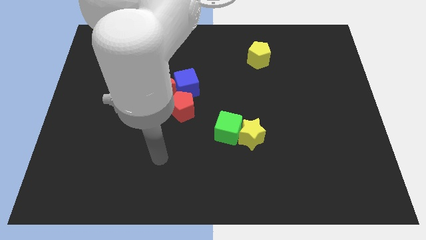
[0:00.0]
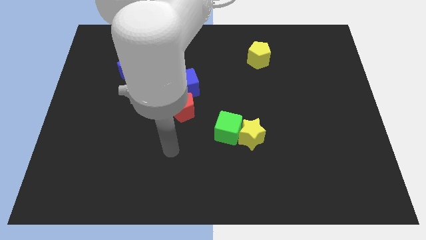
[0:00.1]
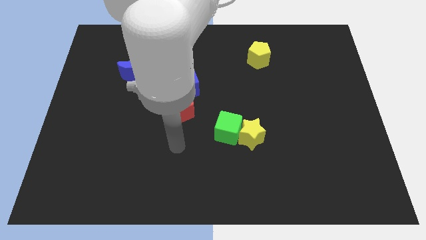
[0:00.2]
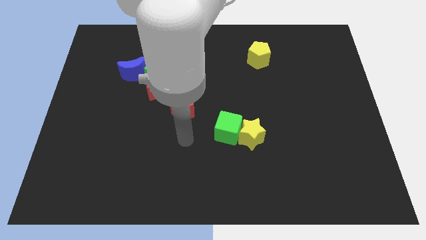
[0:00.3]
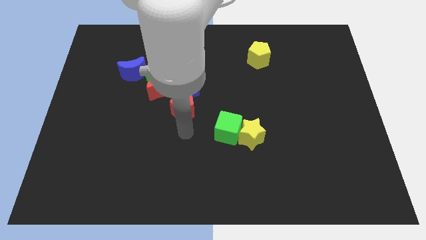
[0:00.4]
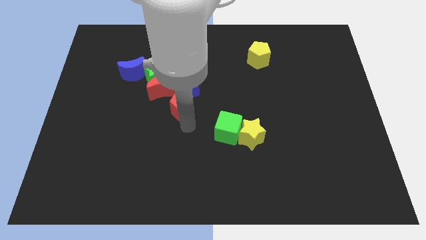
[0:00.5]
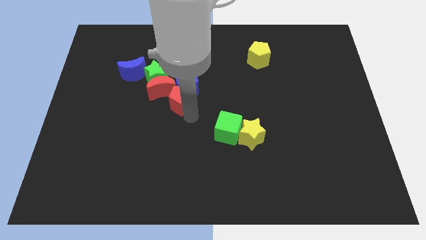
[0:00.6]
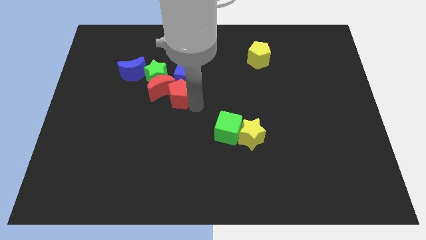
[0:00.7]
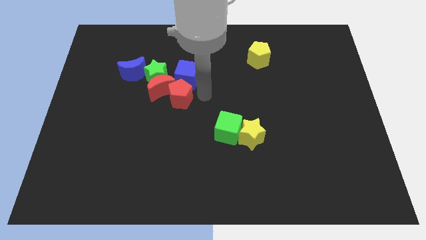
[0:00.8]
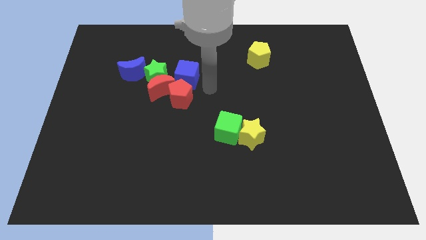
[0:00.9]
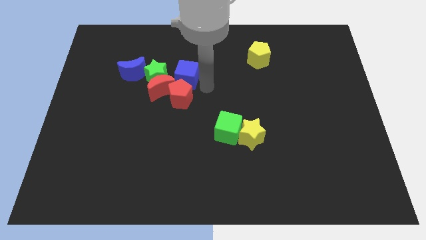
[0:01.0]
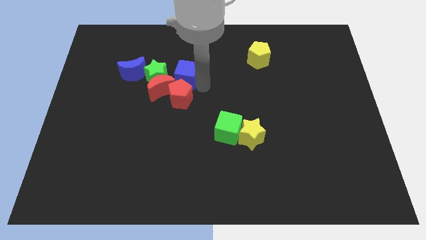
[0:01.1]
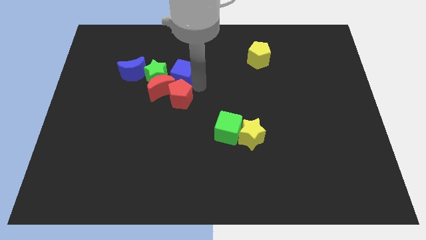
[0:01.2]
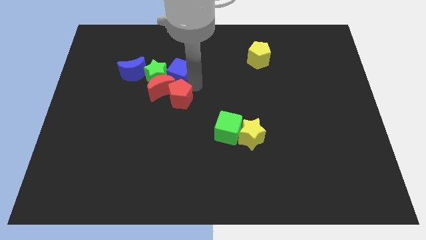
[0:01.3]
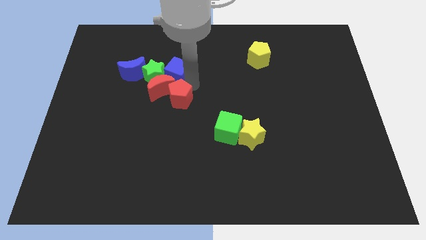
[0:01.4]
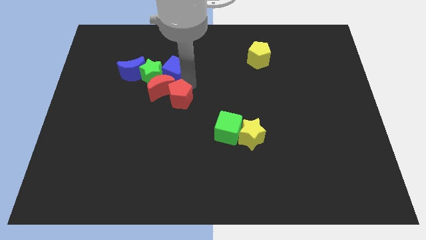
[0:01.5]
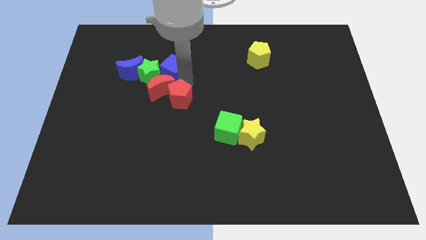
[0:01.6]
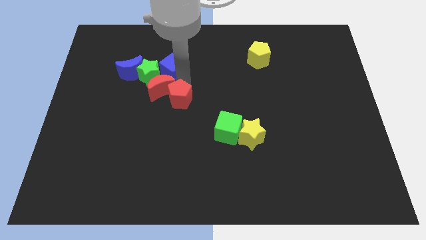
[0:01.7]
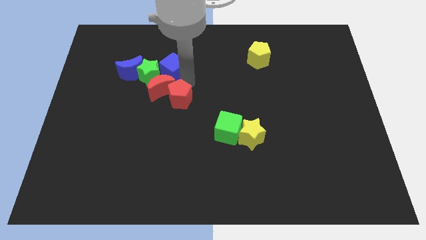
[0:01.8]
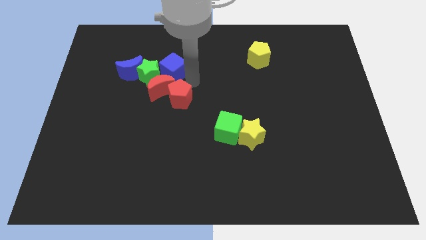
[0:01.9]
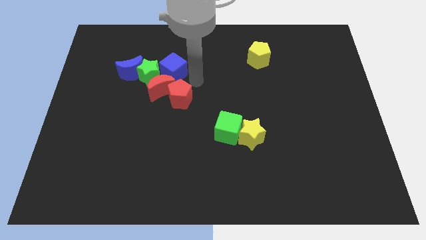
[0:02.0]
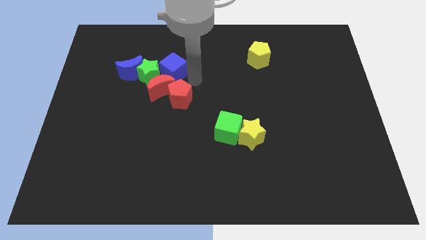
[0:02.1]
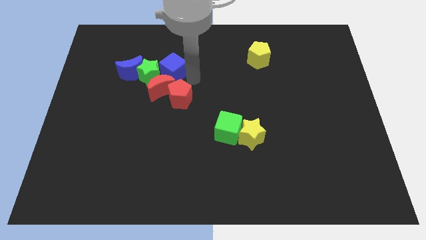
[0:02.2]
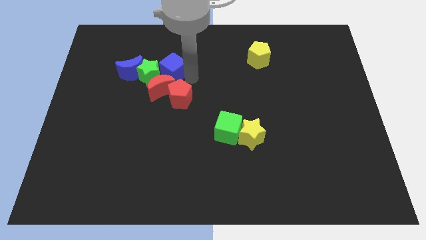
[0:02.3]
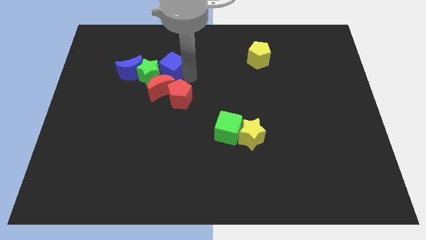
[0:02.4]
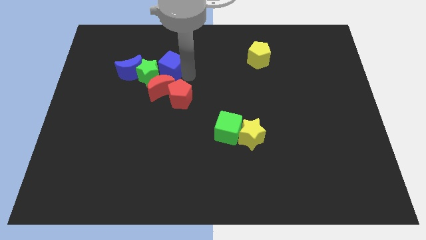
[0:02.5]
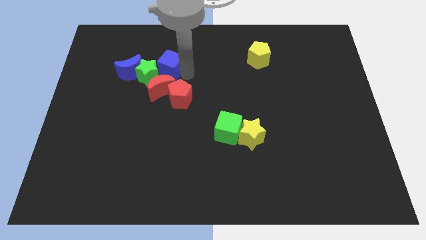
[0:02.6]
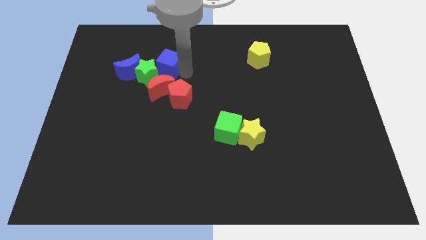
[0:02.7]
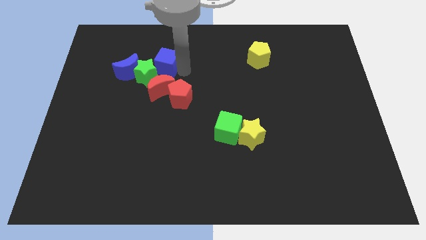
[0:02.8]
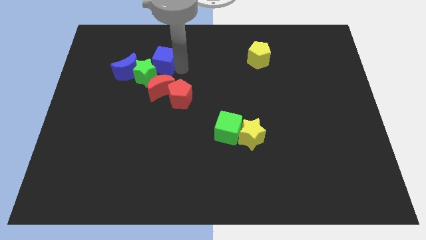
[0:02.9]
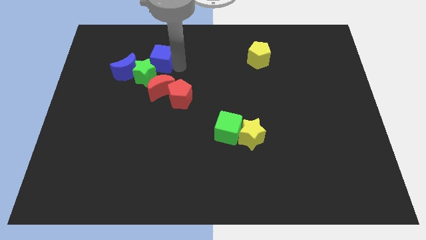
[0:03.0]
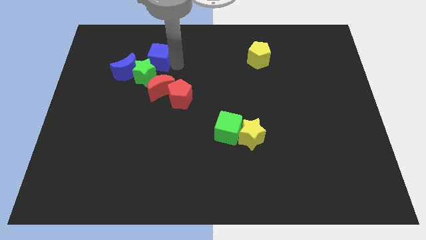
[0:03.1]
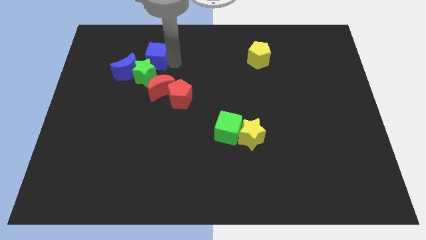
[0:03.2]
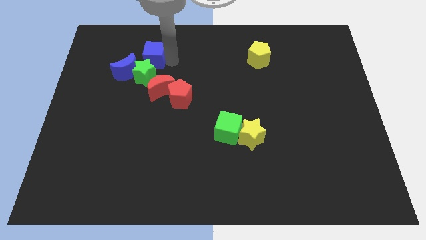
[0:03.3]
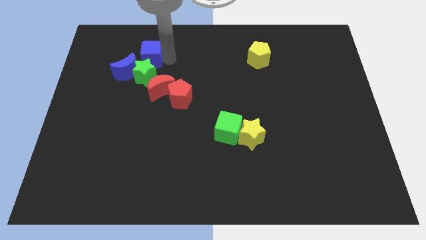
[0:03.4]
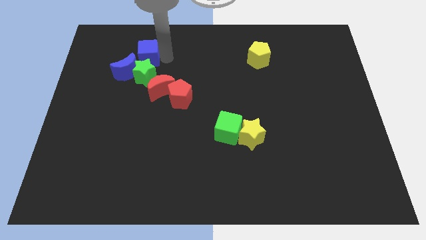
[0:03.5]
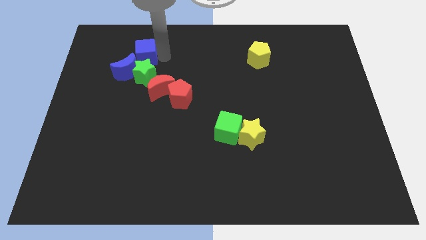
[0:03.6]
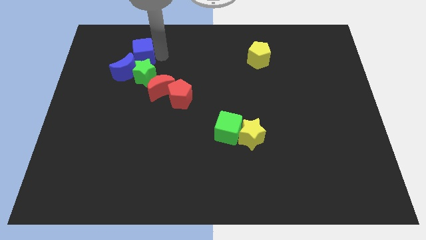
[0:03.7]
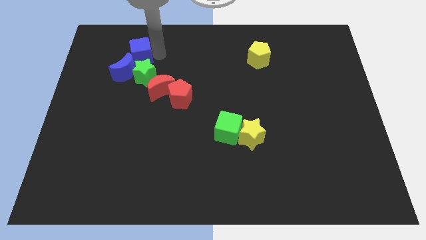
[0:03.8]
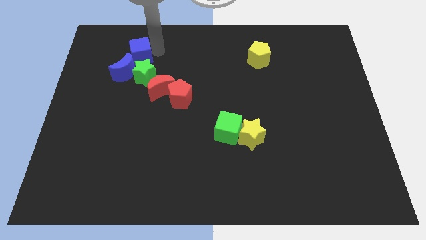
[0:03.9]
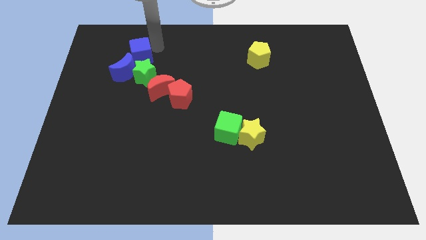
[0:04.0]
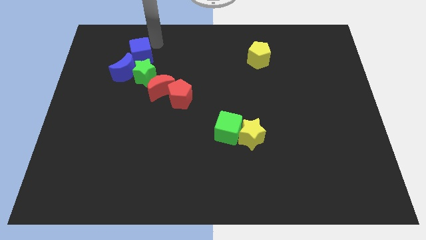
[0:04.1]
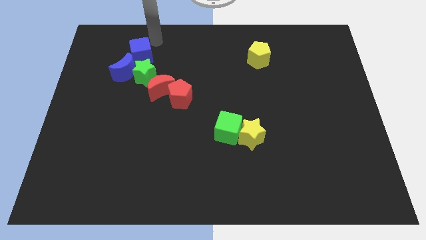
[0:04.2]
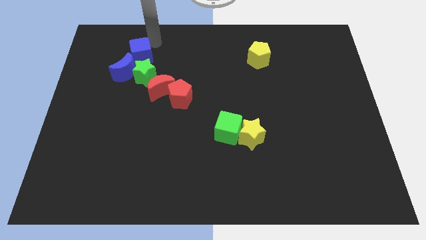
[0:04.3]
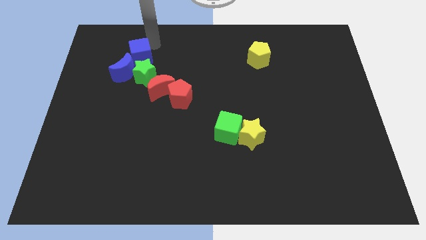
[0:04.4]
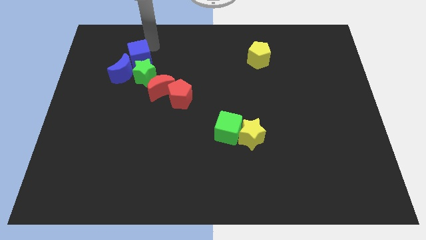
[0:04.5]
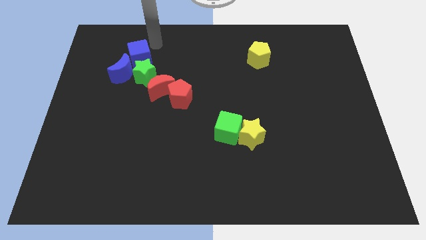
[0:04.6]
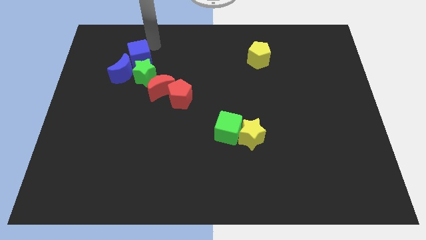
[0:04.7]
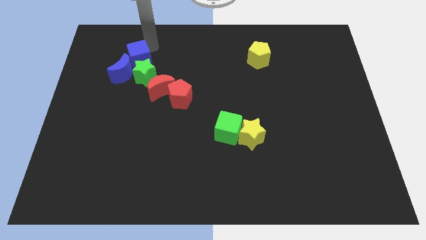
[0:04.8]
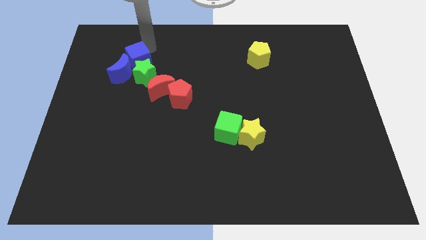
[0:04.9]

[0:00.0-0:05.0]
put the blue cube next to the blue moon

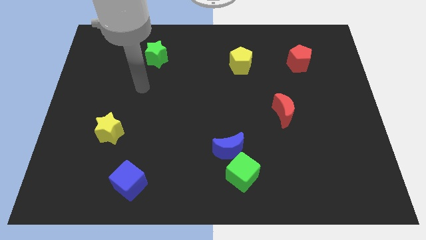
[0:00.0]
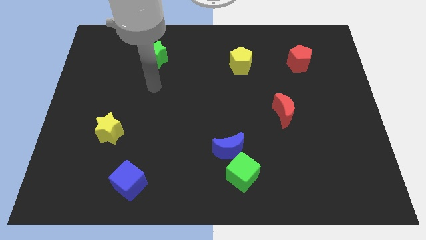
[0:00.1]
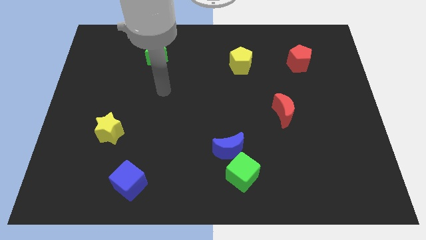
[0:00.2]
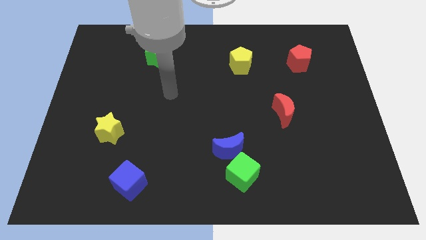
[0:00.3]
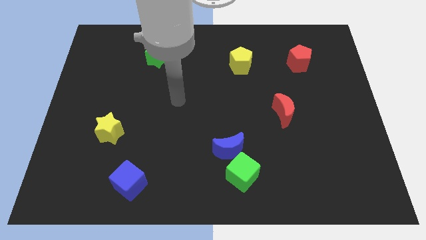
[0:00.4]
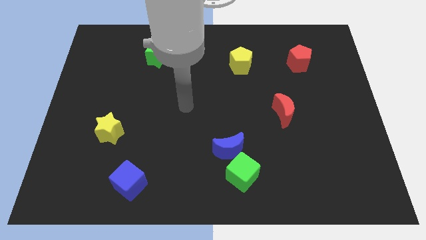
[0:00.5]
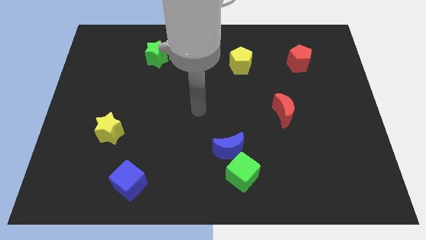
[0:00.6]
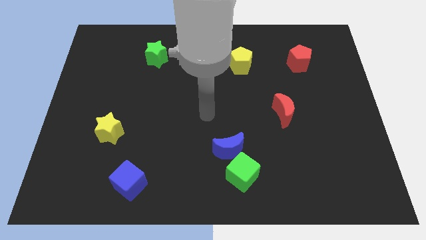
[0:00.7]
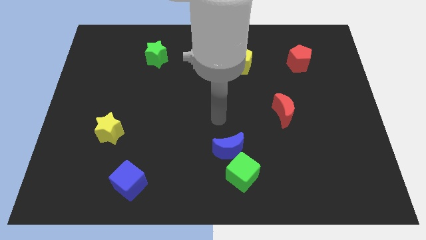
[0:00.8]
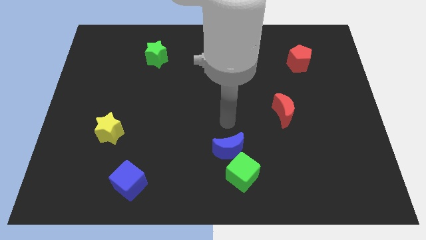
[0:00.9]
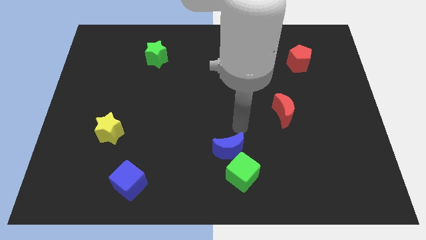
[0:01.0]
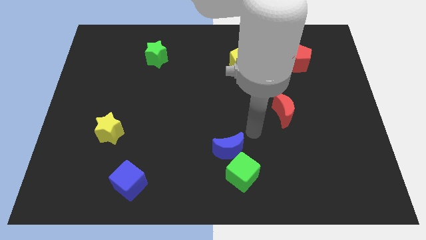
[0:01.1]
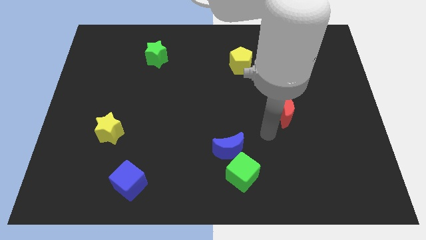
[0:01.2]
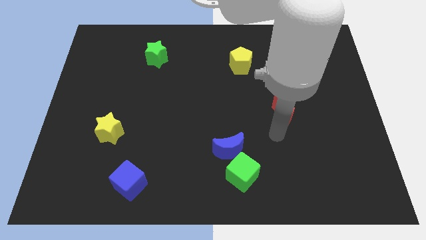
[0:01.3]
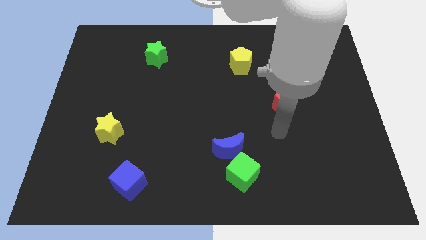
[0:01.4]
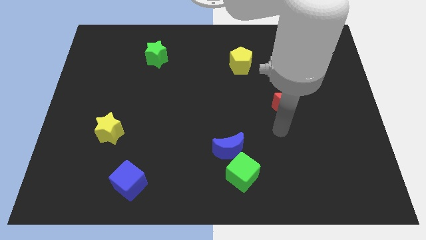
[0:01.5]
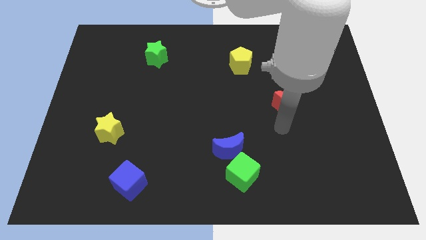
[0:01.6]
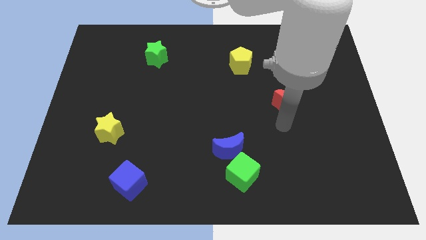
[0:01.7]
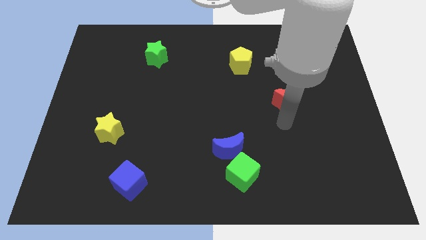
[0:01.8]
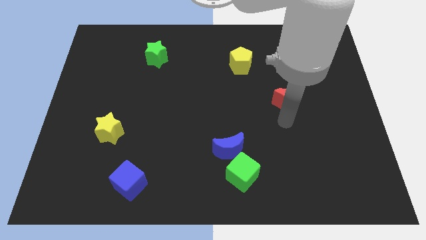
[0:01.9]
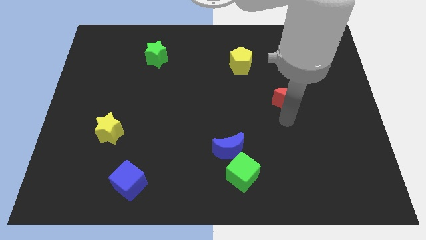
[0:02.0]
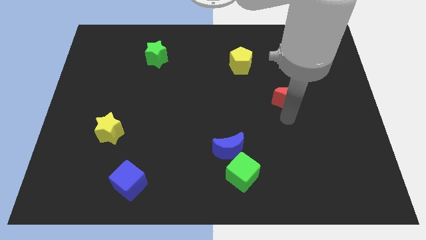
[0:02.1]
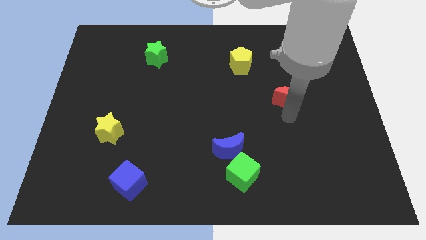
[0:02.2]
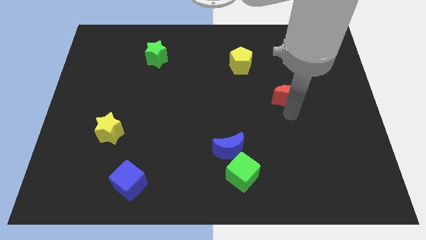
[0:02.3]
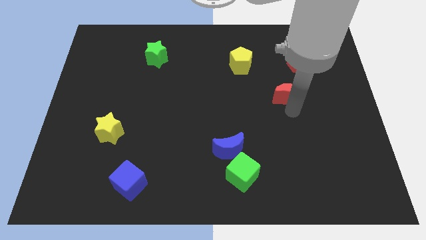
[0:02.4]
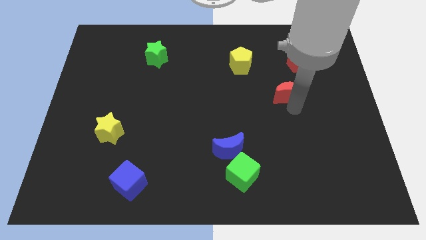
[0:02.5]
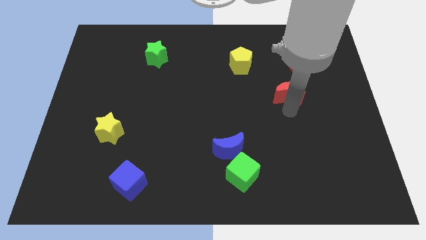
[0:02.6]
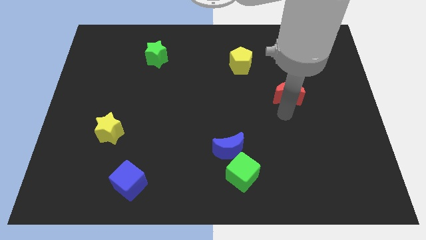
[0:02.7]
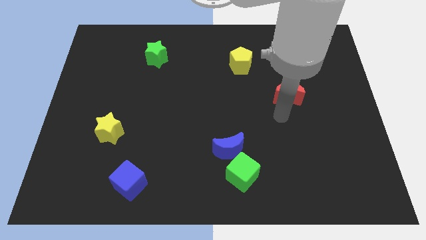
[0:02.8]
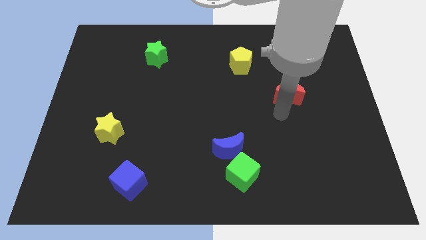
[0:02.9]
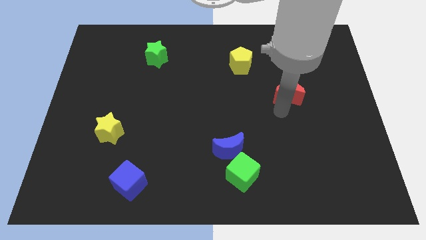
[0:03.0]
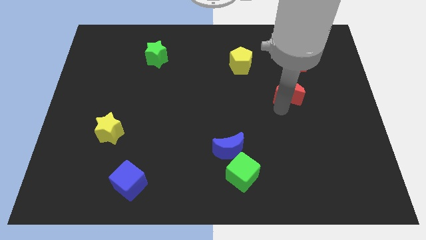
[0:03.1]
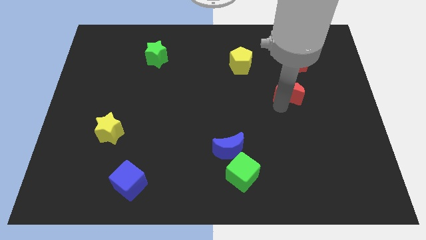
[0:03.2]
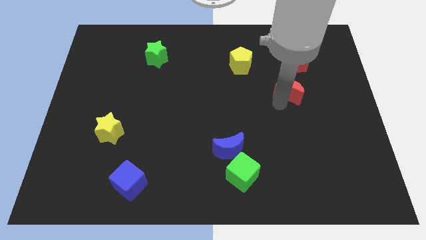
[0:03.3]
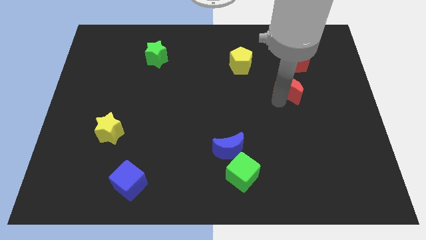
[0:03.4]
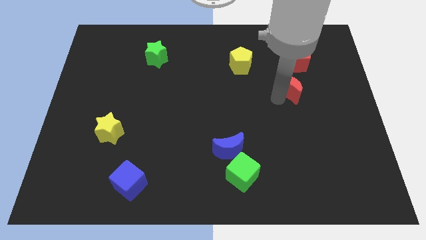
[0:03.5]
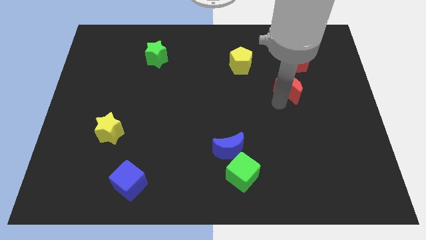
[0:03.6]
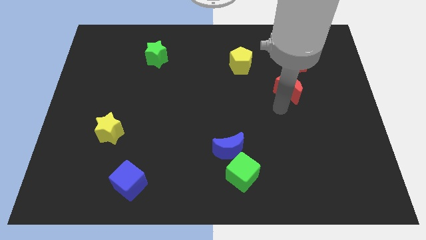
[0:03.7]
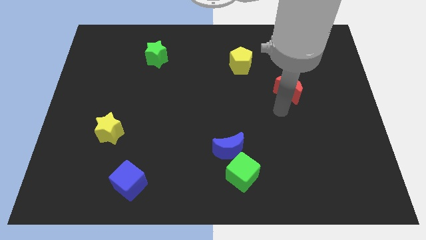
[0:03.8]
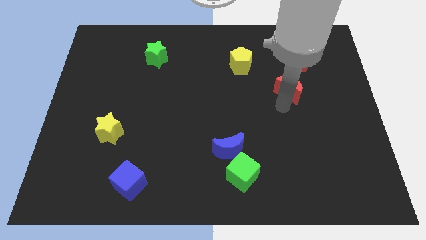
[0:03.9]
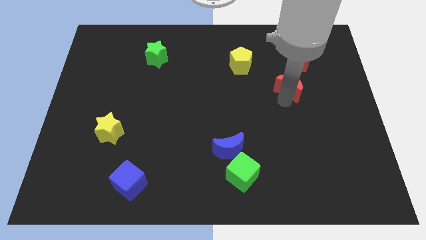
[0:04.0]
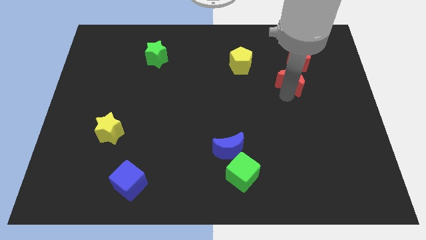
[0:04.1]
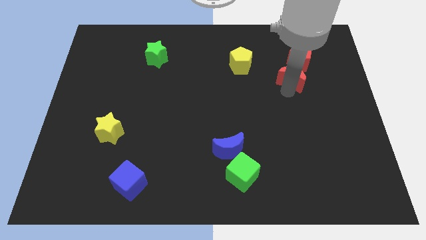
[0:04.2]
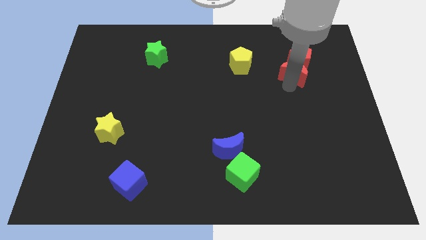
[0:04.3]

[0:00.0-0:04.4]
put the red moon to the red pentagon
